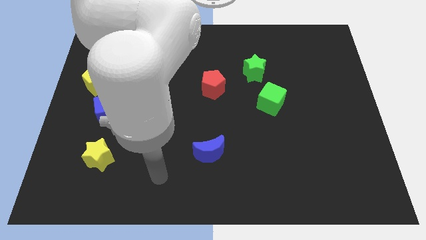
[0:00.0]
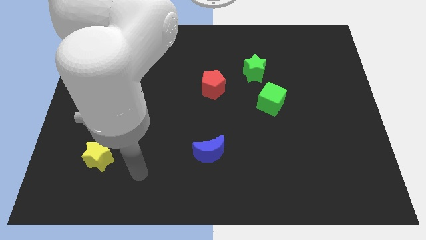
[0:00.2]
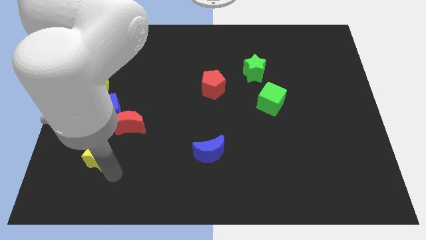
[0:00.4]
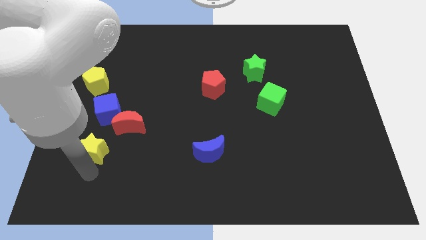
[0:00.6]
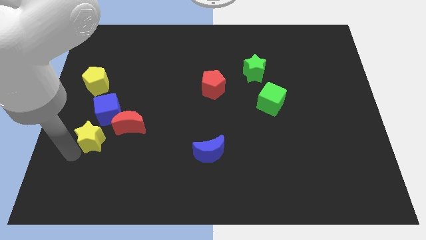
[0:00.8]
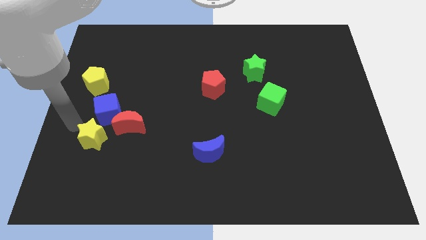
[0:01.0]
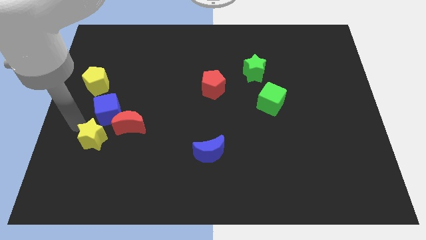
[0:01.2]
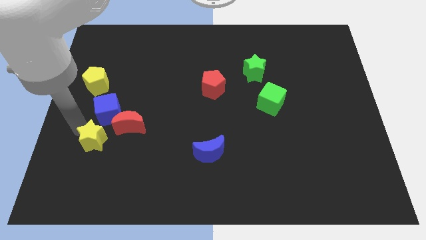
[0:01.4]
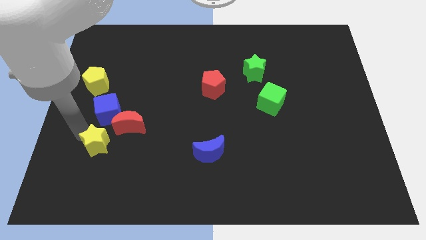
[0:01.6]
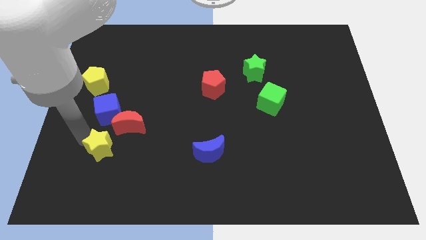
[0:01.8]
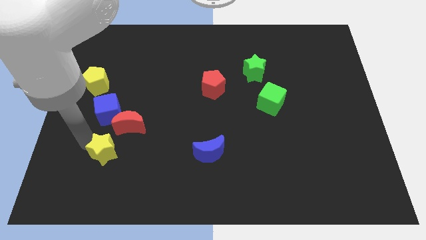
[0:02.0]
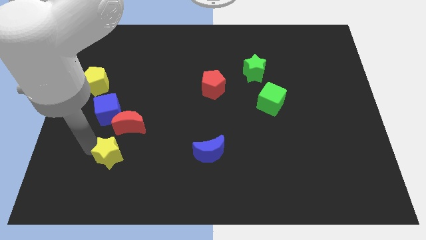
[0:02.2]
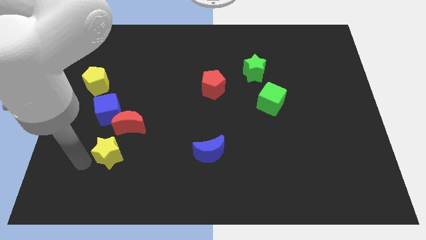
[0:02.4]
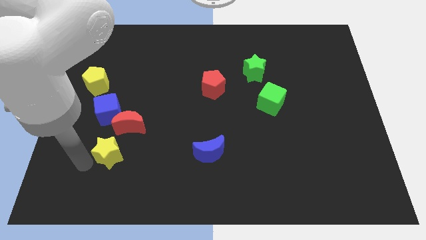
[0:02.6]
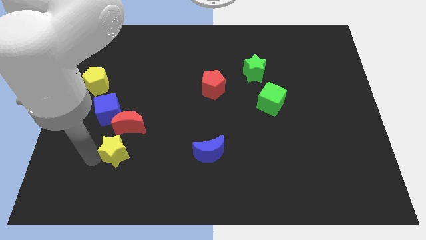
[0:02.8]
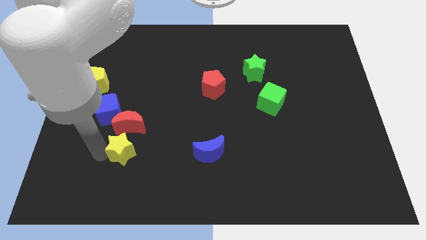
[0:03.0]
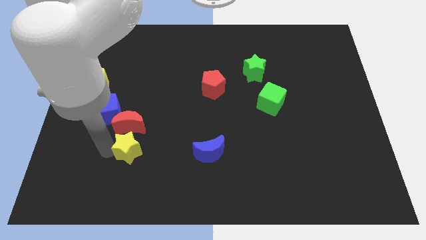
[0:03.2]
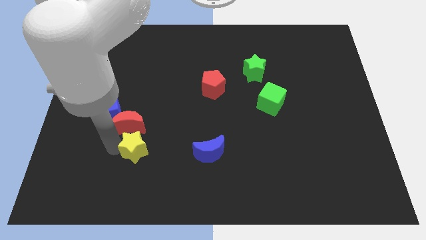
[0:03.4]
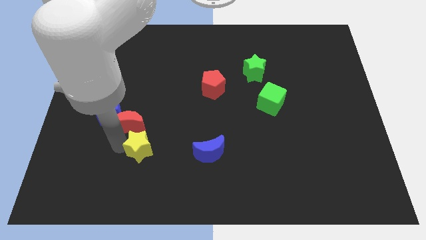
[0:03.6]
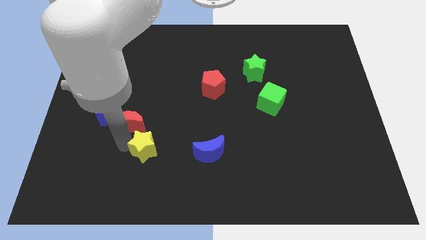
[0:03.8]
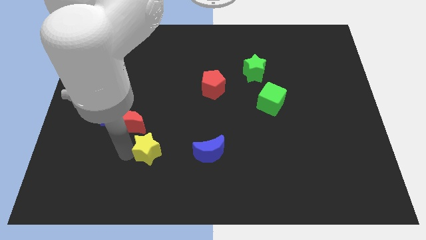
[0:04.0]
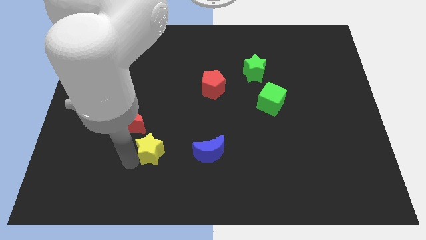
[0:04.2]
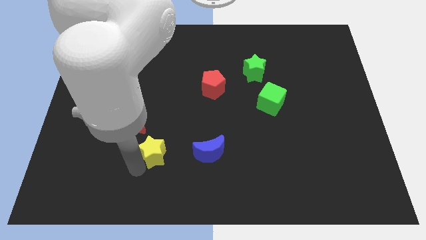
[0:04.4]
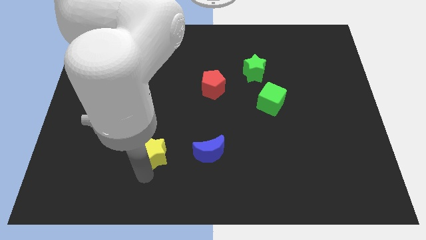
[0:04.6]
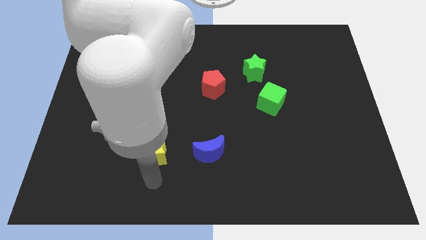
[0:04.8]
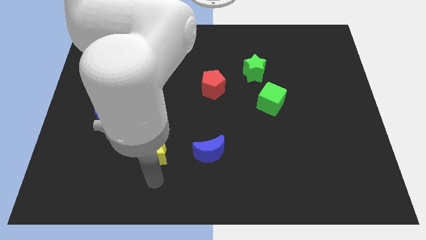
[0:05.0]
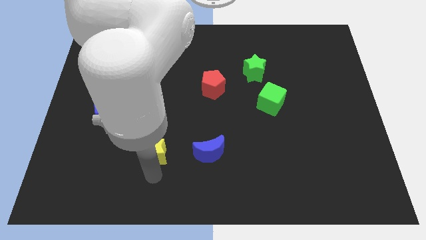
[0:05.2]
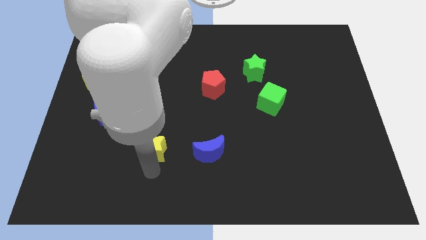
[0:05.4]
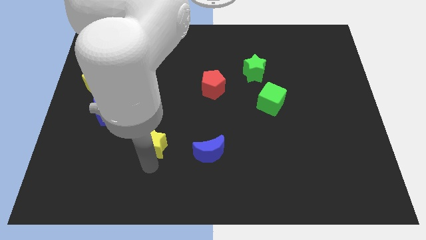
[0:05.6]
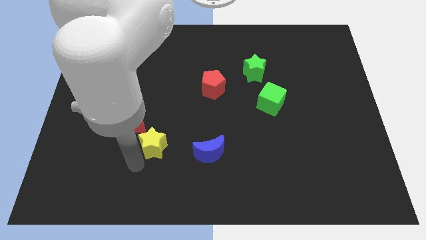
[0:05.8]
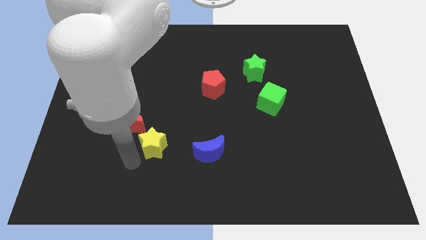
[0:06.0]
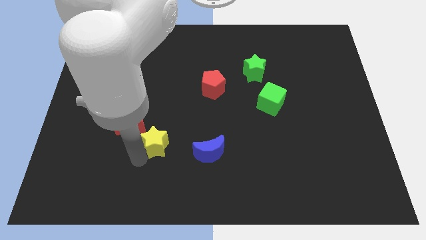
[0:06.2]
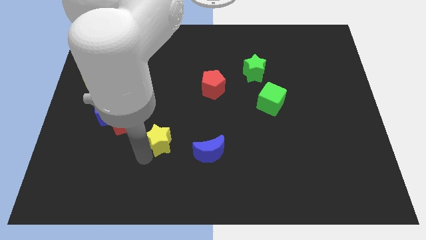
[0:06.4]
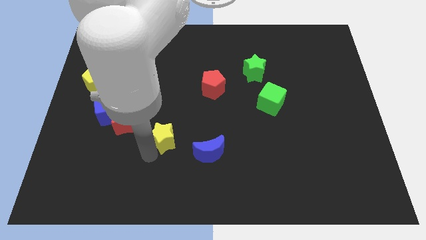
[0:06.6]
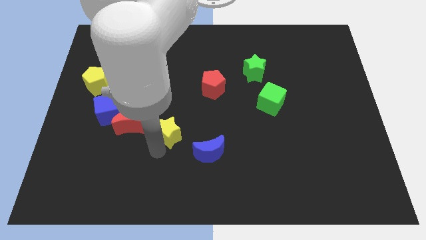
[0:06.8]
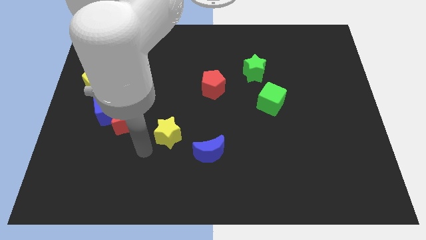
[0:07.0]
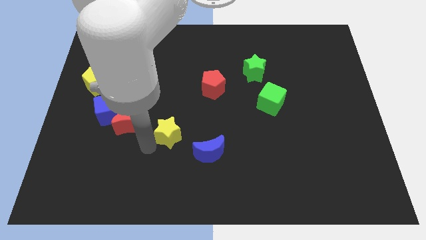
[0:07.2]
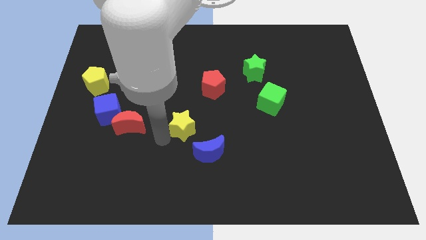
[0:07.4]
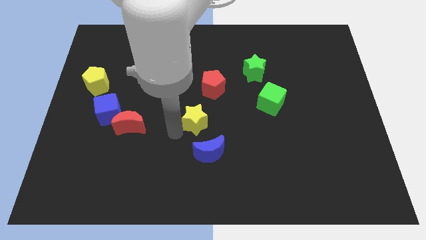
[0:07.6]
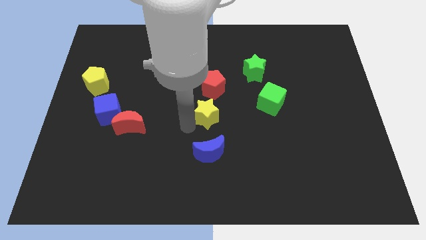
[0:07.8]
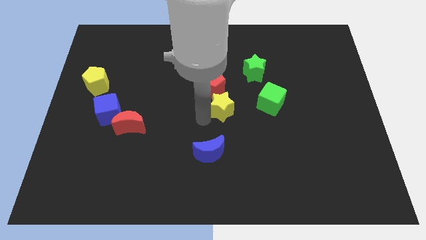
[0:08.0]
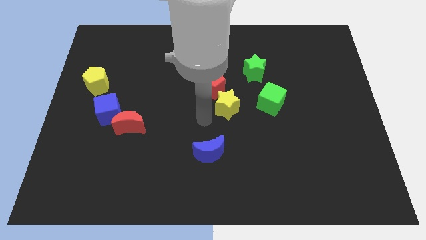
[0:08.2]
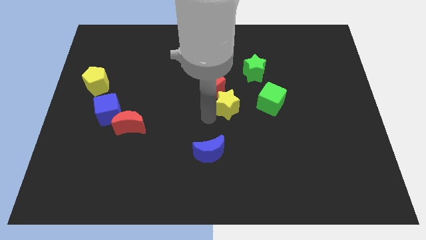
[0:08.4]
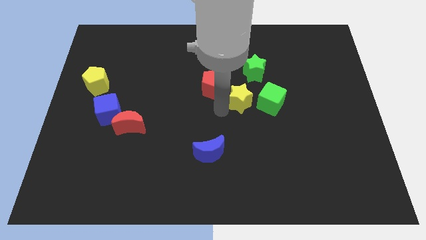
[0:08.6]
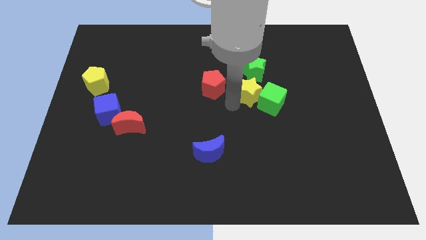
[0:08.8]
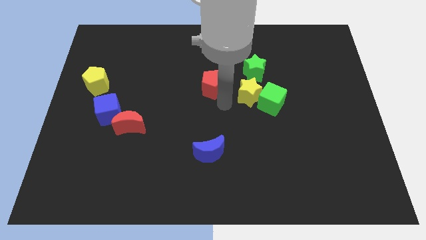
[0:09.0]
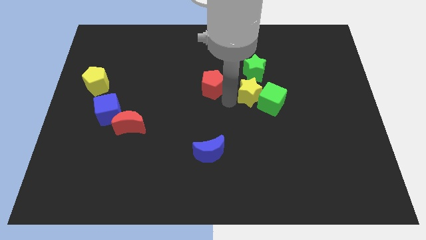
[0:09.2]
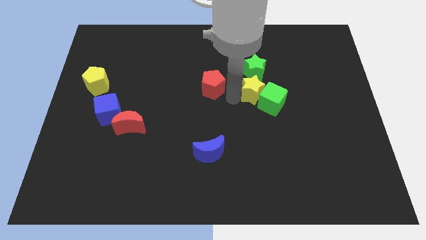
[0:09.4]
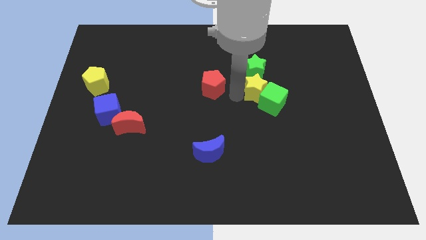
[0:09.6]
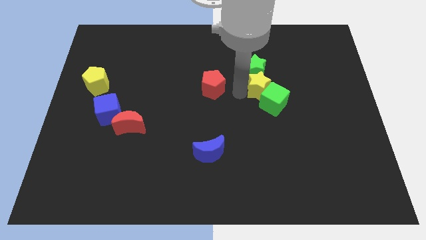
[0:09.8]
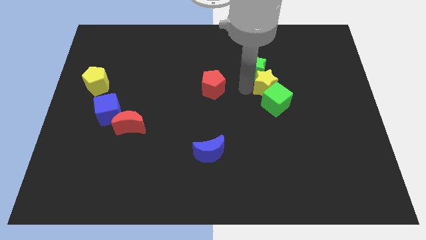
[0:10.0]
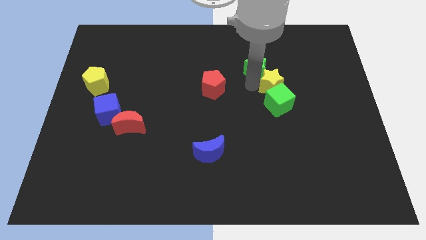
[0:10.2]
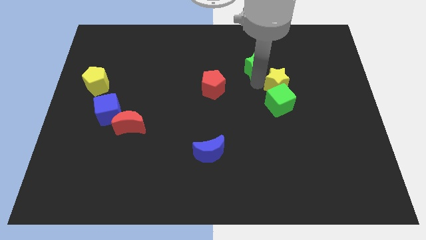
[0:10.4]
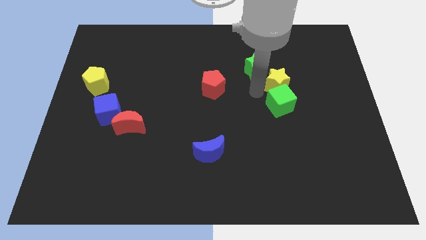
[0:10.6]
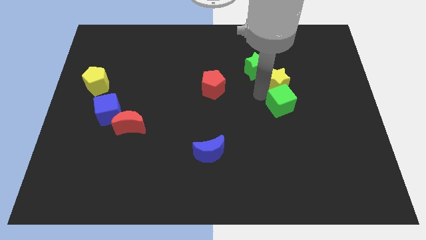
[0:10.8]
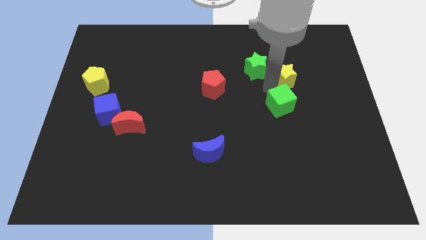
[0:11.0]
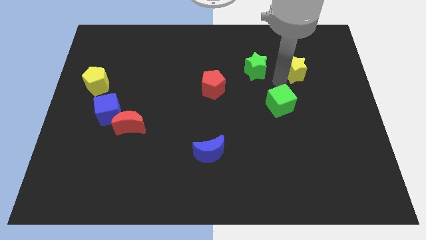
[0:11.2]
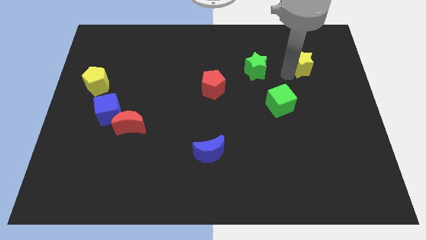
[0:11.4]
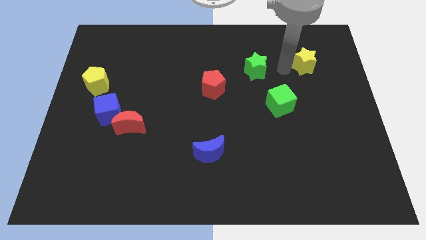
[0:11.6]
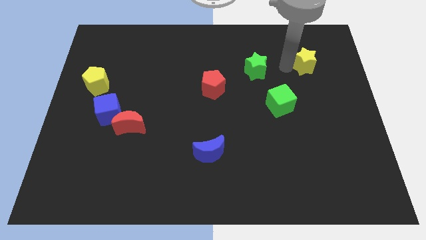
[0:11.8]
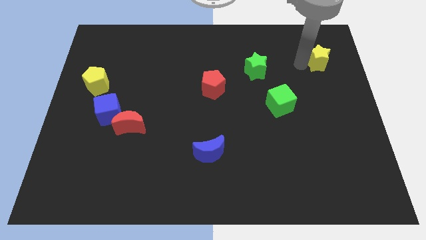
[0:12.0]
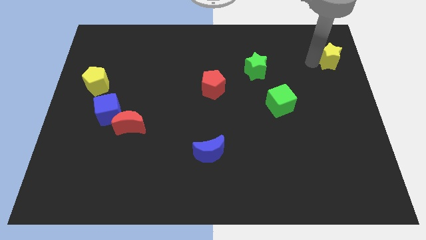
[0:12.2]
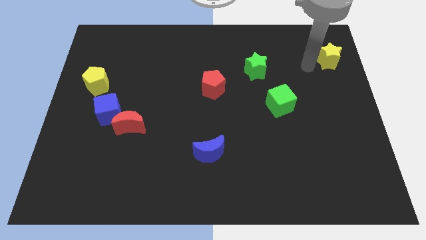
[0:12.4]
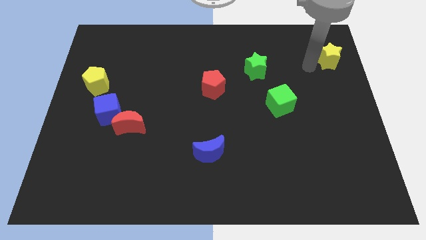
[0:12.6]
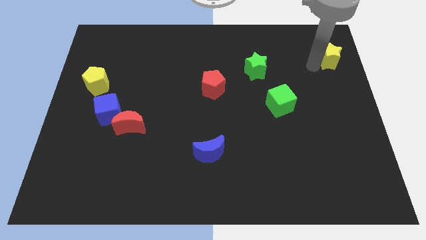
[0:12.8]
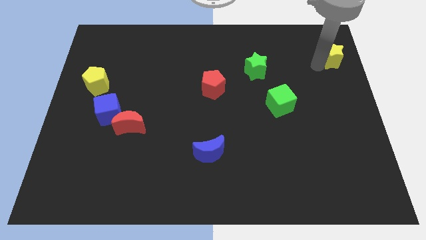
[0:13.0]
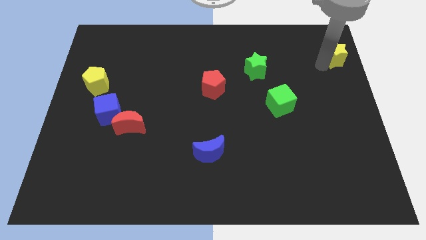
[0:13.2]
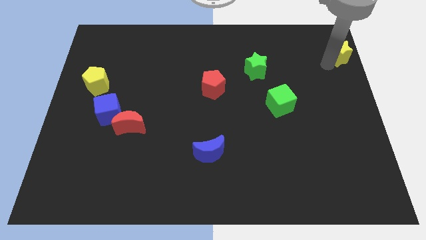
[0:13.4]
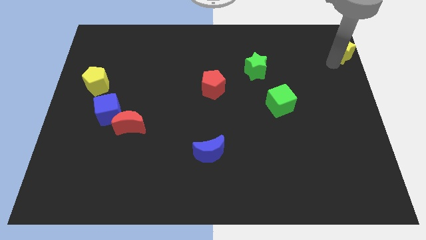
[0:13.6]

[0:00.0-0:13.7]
move the yellow star to the upper right corner
